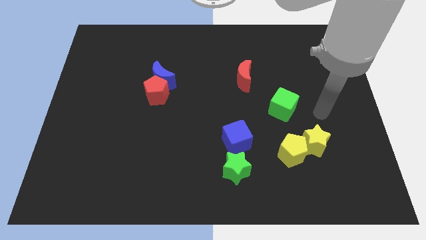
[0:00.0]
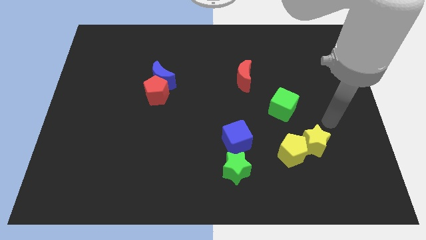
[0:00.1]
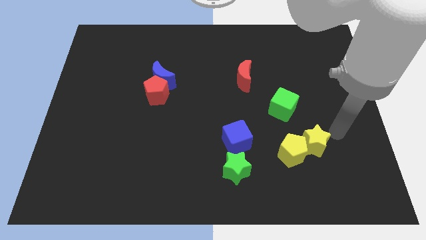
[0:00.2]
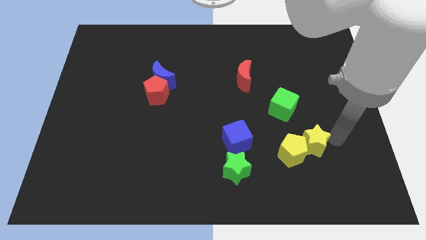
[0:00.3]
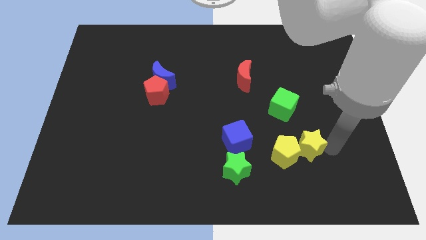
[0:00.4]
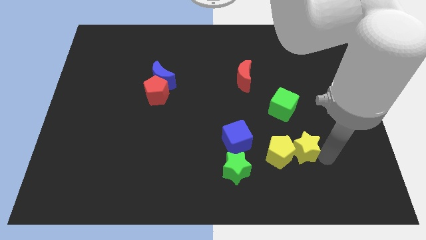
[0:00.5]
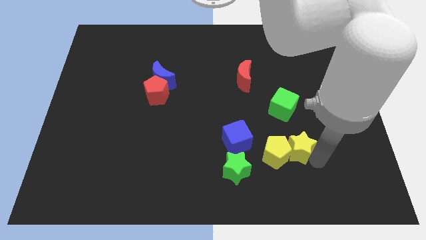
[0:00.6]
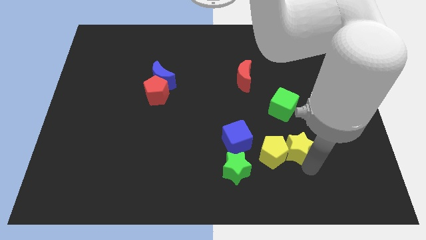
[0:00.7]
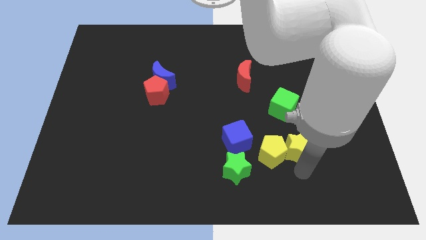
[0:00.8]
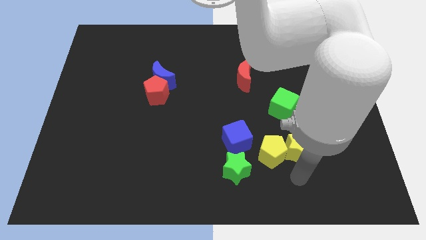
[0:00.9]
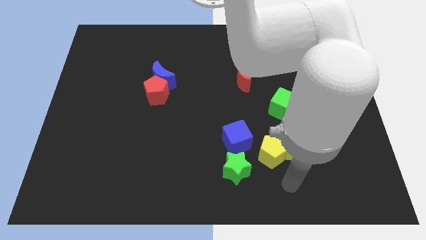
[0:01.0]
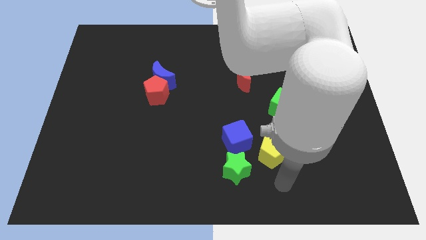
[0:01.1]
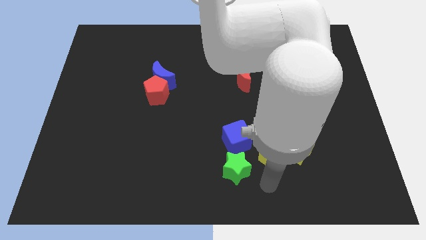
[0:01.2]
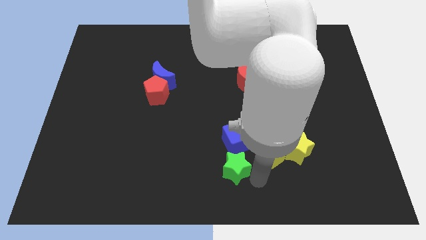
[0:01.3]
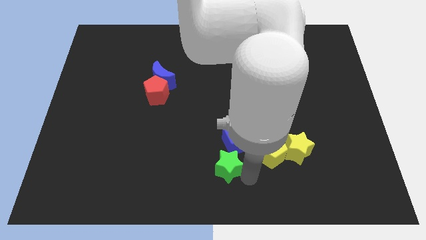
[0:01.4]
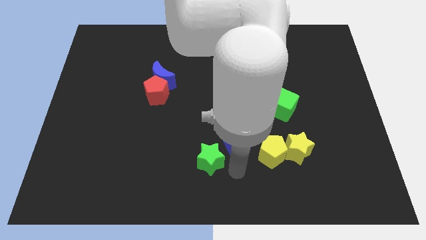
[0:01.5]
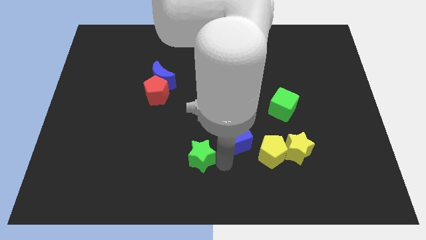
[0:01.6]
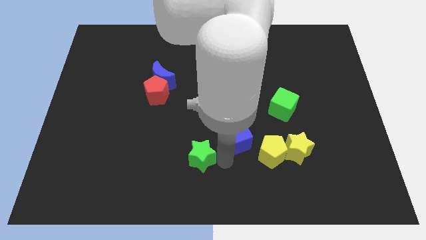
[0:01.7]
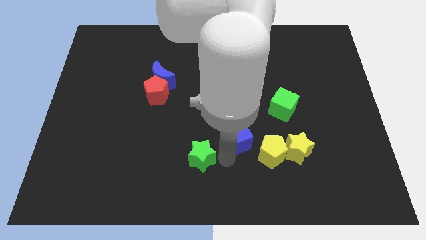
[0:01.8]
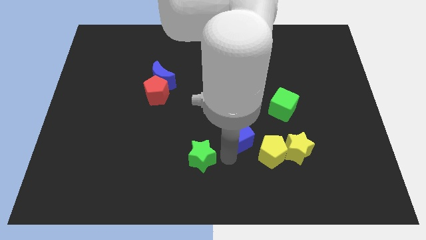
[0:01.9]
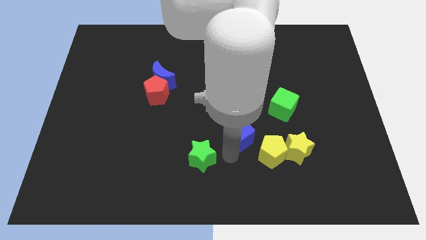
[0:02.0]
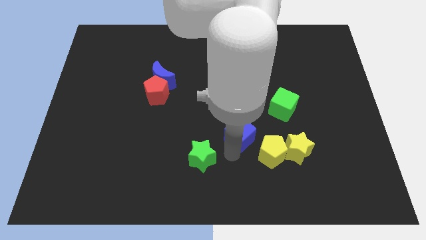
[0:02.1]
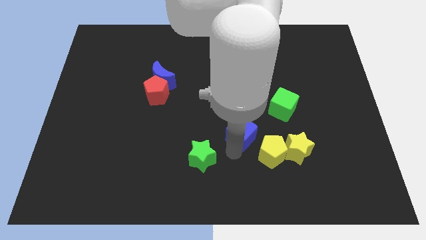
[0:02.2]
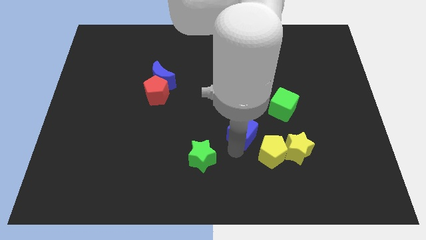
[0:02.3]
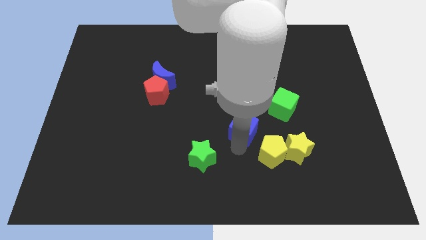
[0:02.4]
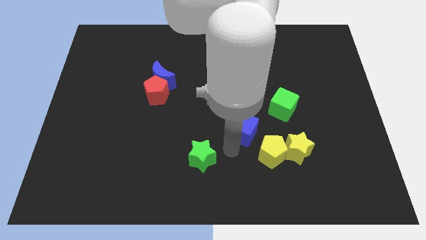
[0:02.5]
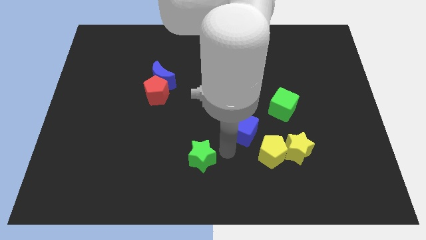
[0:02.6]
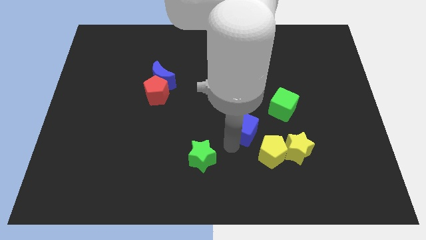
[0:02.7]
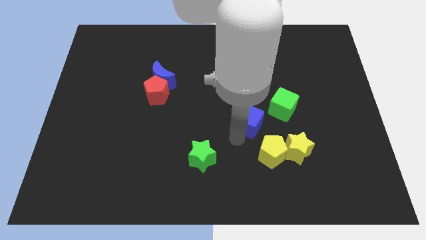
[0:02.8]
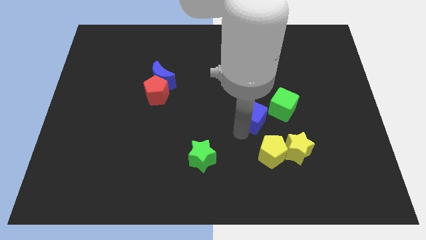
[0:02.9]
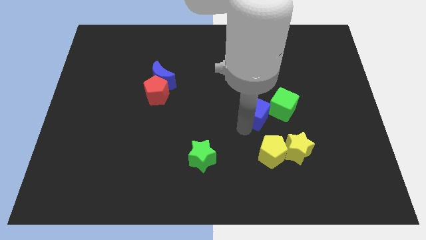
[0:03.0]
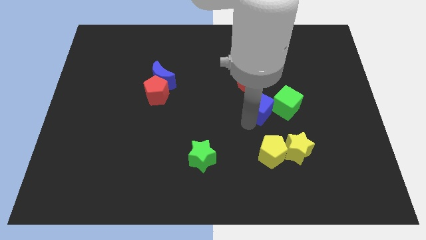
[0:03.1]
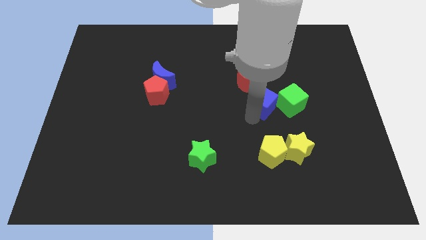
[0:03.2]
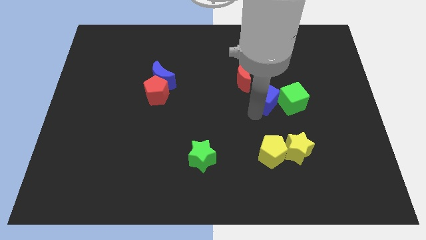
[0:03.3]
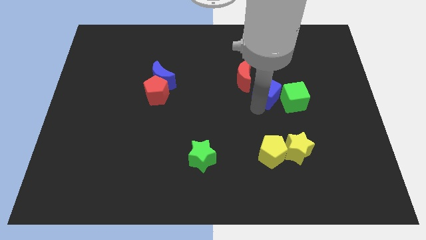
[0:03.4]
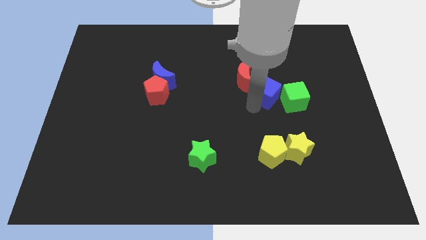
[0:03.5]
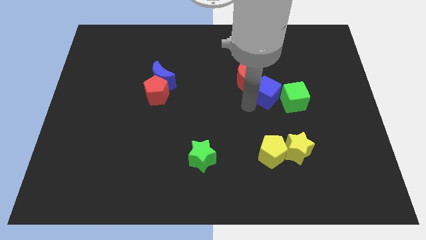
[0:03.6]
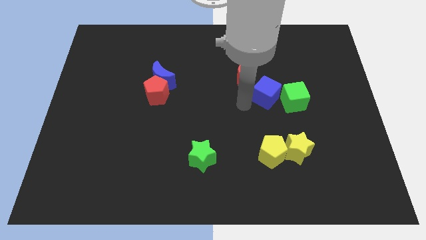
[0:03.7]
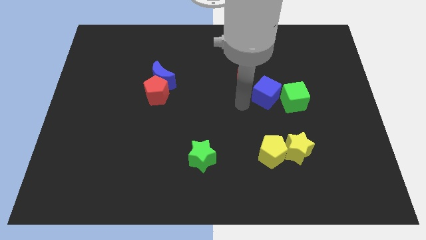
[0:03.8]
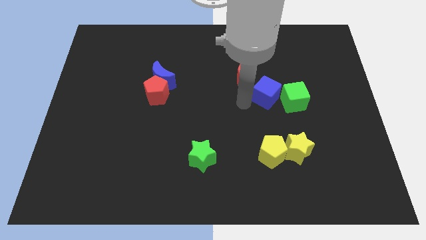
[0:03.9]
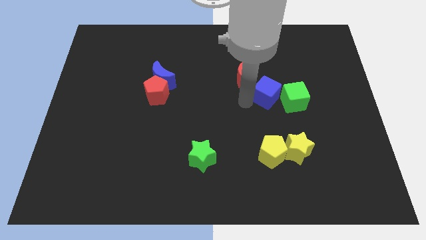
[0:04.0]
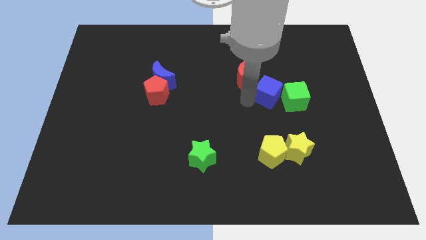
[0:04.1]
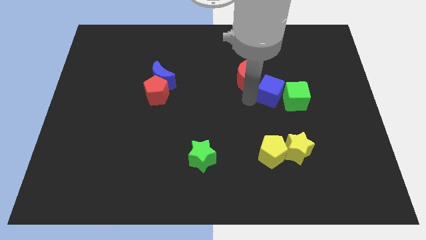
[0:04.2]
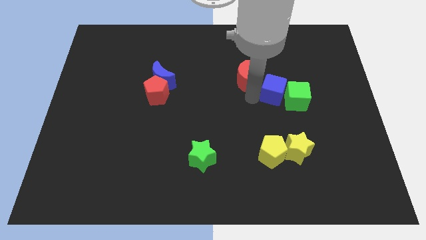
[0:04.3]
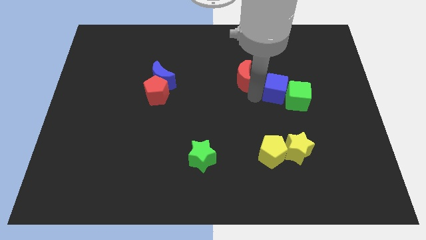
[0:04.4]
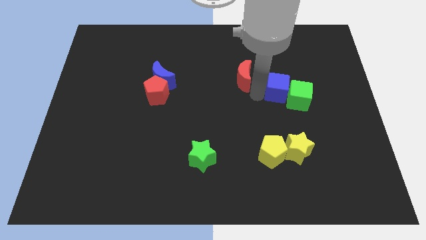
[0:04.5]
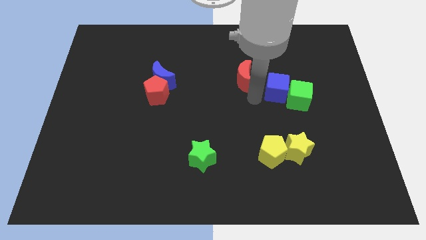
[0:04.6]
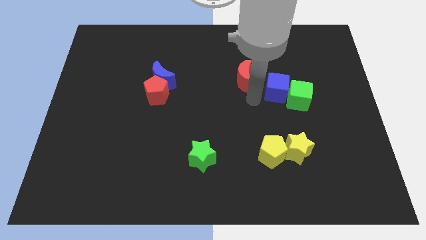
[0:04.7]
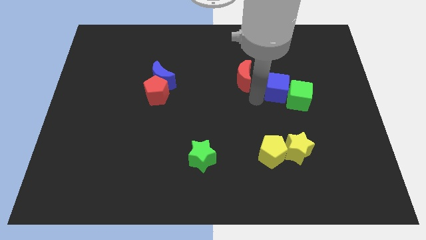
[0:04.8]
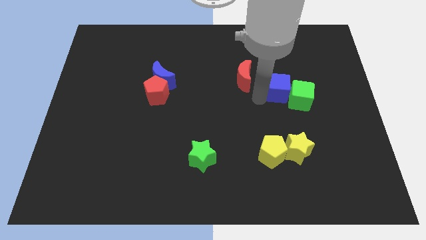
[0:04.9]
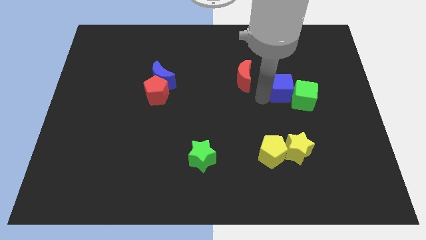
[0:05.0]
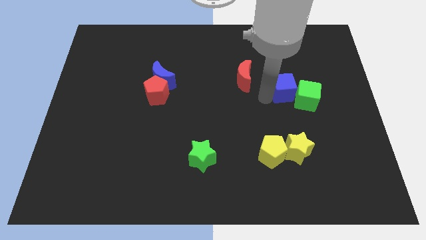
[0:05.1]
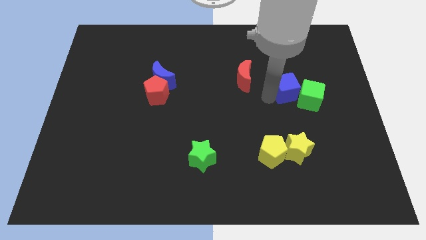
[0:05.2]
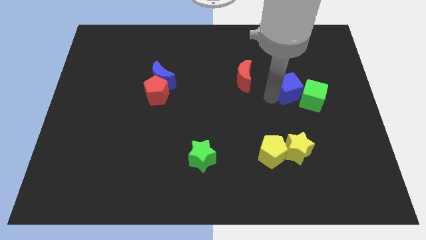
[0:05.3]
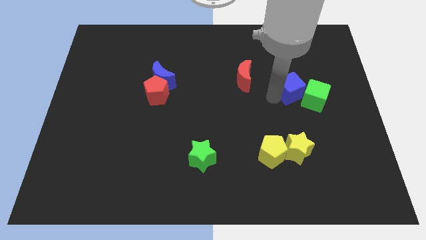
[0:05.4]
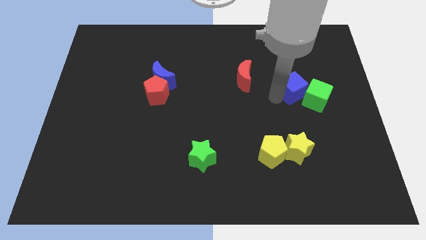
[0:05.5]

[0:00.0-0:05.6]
slide the blue cube diagonally up and right

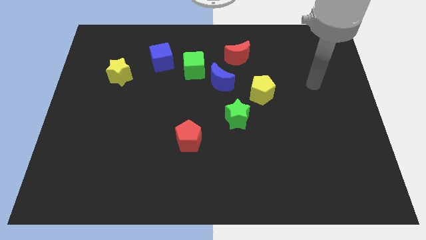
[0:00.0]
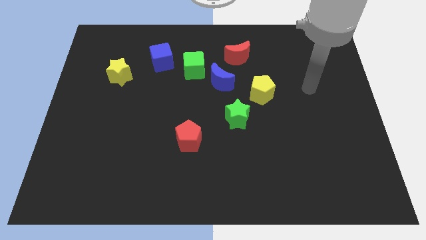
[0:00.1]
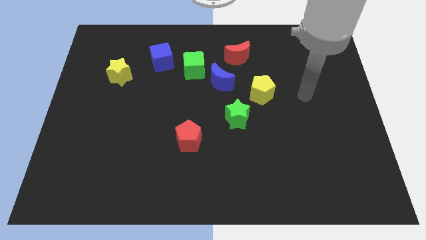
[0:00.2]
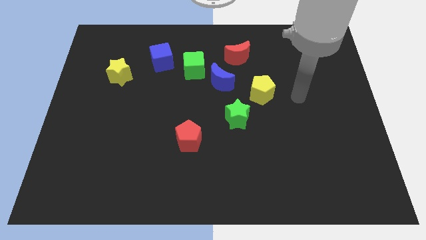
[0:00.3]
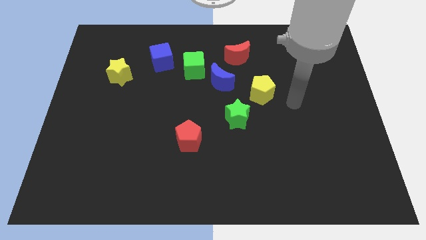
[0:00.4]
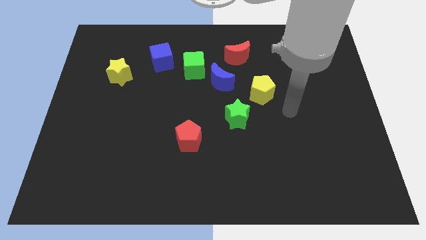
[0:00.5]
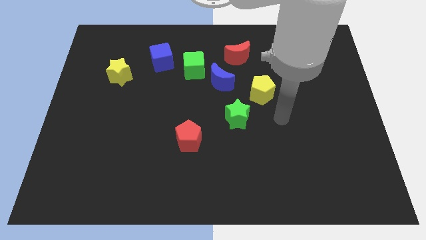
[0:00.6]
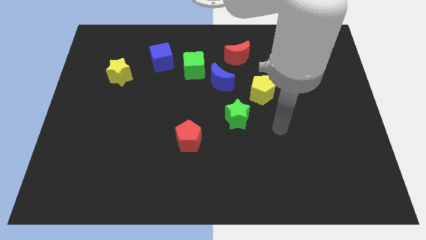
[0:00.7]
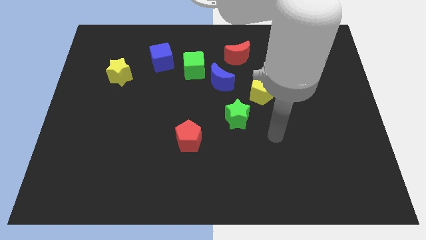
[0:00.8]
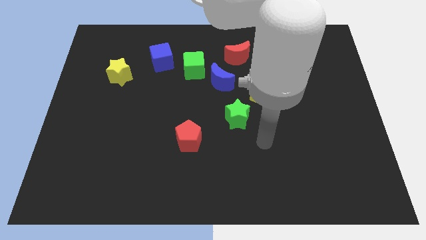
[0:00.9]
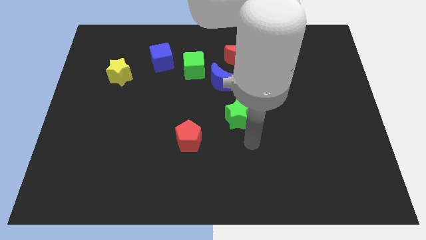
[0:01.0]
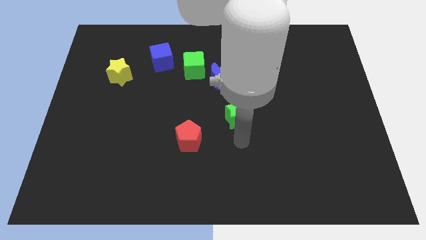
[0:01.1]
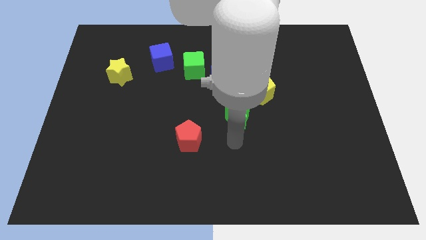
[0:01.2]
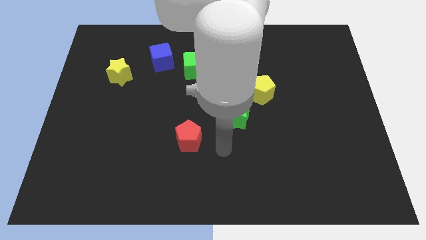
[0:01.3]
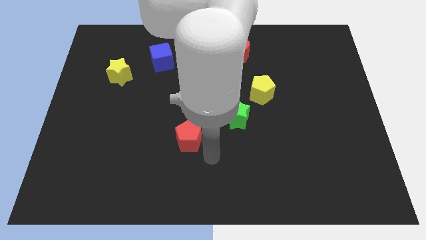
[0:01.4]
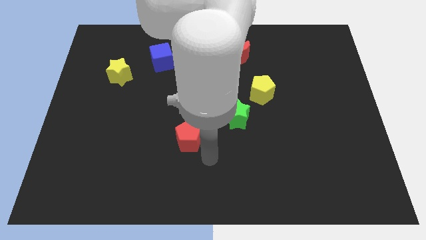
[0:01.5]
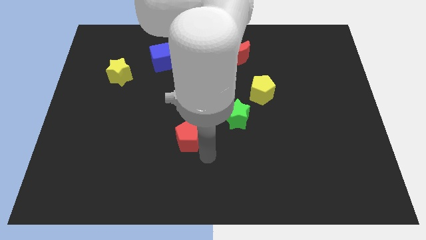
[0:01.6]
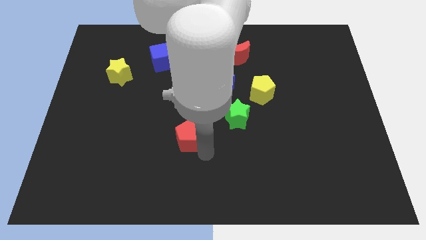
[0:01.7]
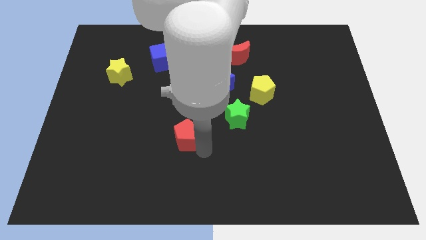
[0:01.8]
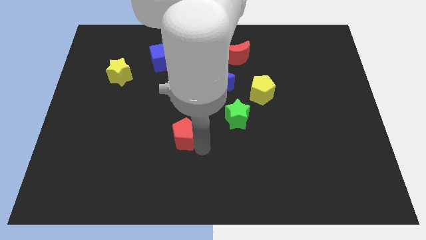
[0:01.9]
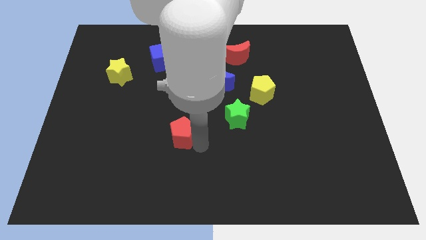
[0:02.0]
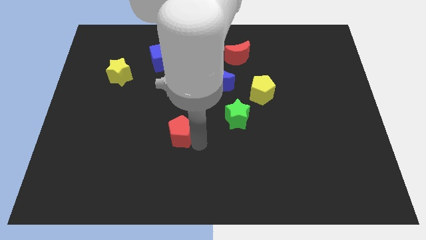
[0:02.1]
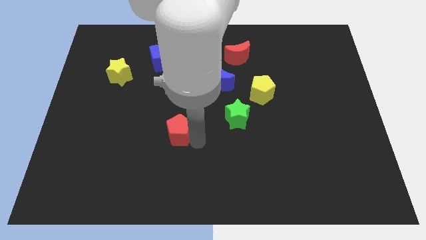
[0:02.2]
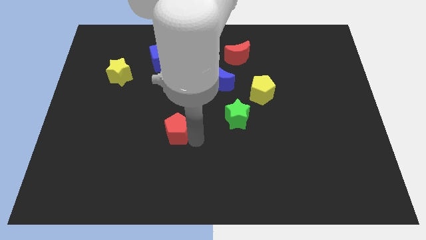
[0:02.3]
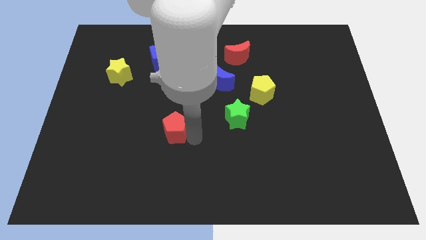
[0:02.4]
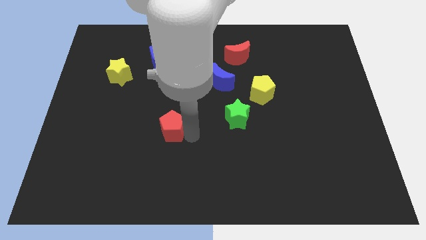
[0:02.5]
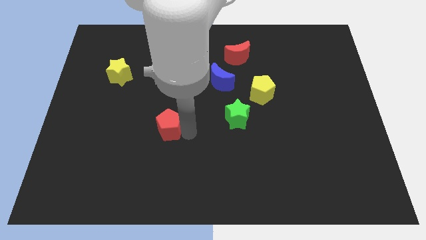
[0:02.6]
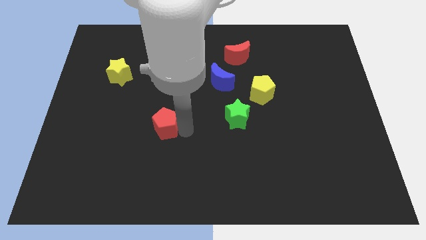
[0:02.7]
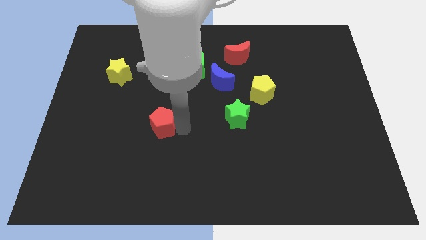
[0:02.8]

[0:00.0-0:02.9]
slide the red pentagon a little bit diagonally up and left
